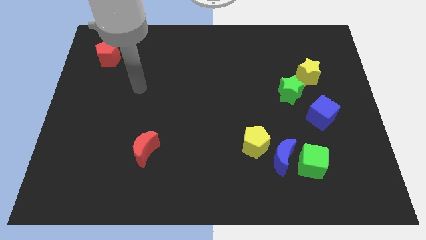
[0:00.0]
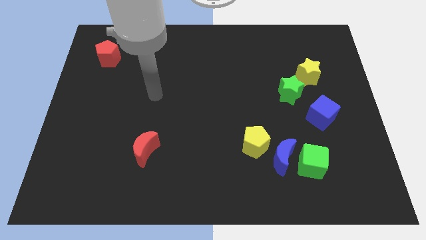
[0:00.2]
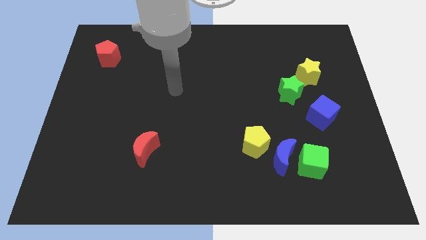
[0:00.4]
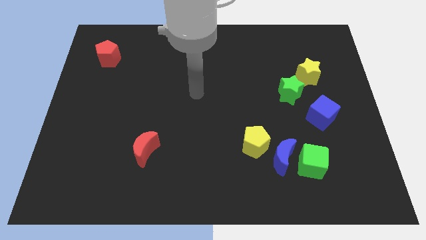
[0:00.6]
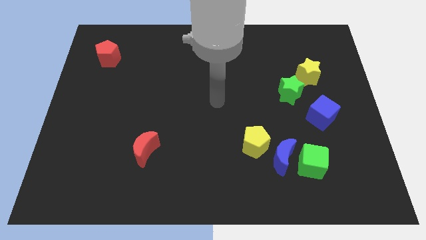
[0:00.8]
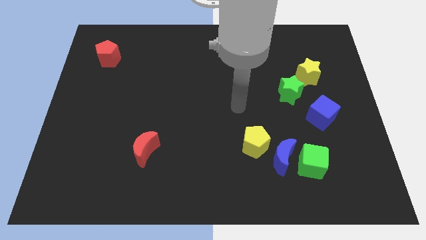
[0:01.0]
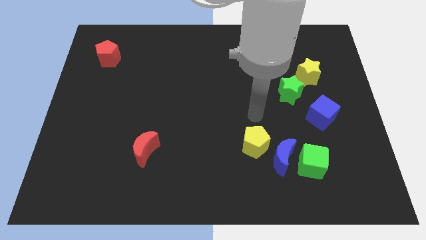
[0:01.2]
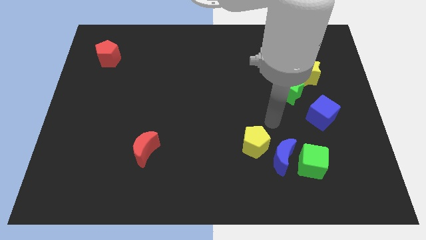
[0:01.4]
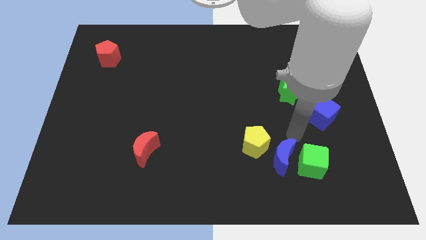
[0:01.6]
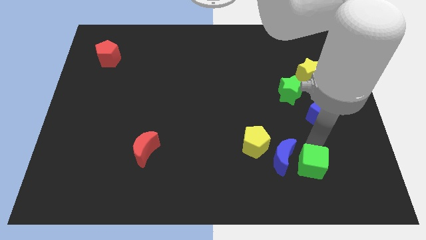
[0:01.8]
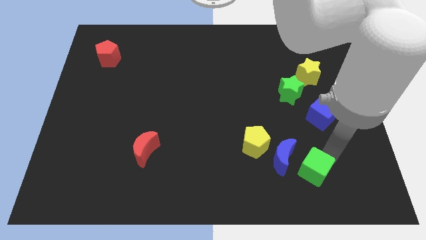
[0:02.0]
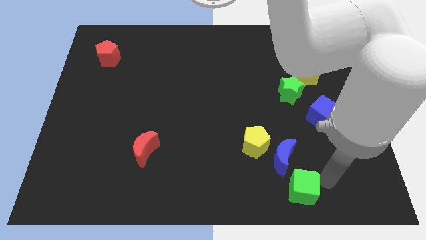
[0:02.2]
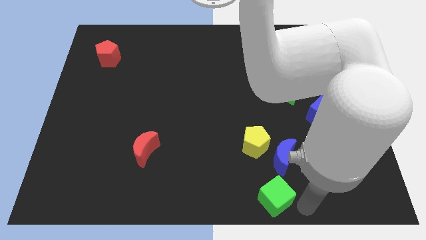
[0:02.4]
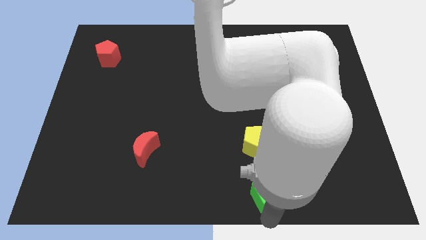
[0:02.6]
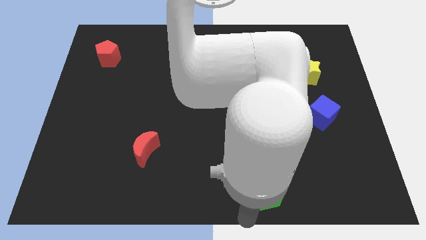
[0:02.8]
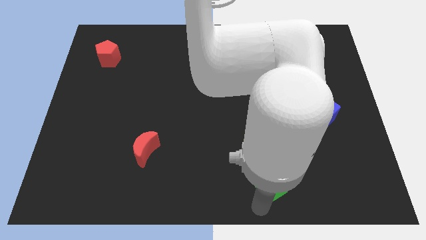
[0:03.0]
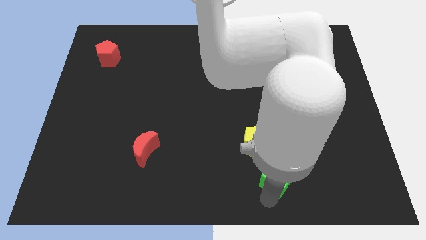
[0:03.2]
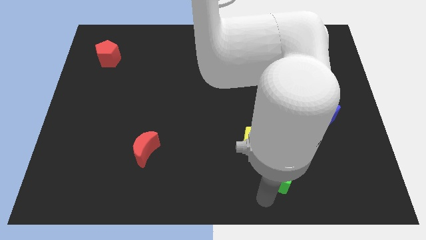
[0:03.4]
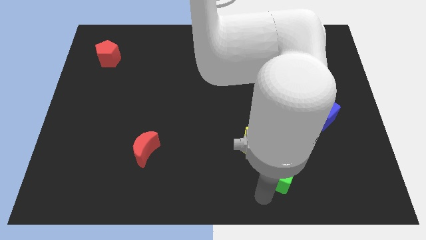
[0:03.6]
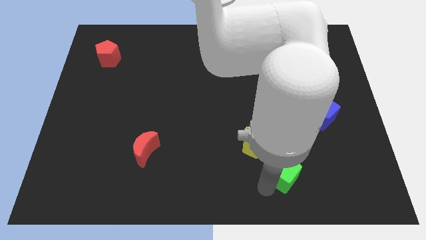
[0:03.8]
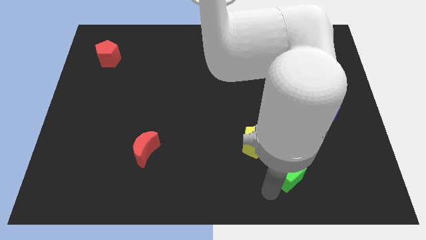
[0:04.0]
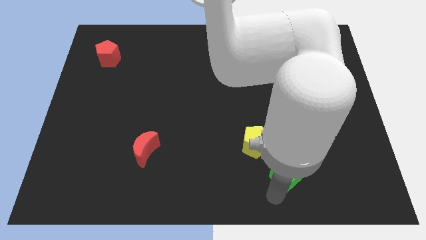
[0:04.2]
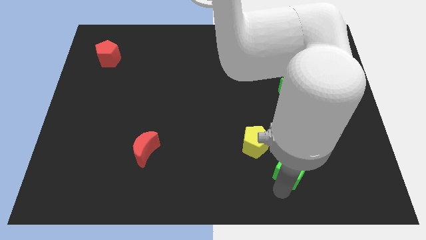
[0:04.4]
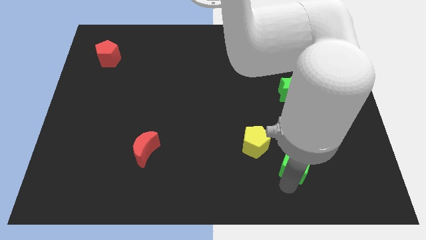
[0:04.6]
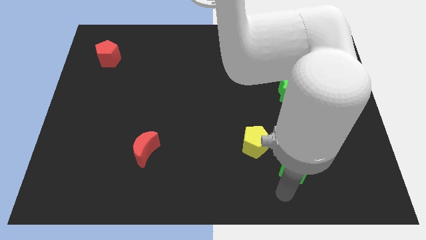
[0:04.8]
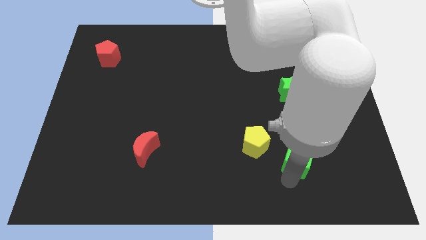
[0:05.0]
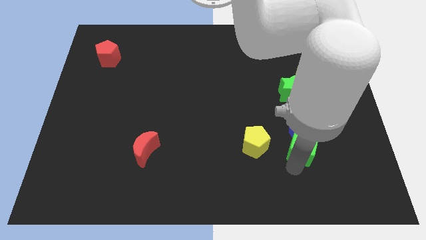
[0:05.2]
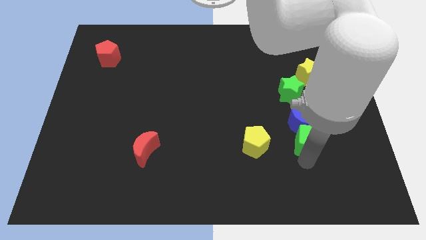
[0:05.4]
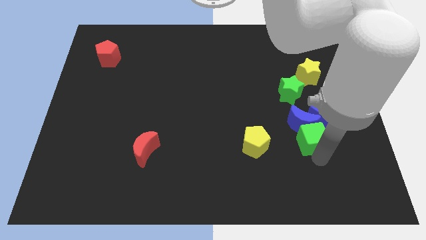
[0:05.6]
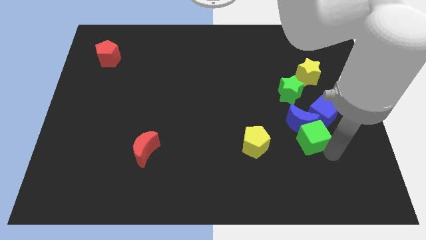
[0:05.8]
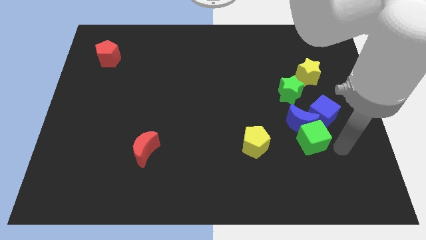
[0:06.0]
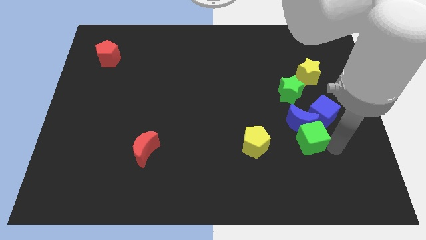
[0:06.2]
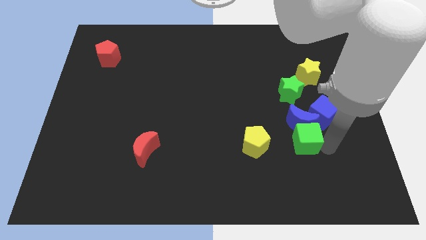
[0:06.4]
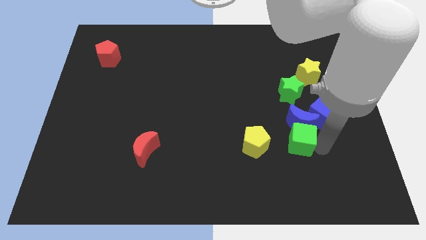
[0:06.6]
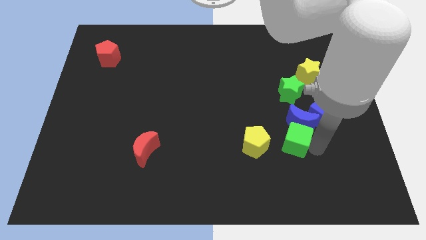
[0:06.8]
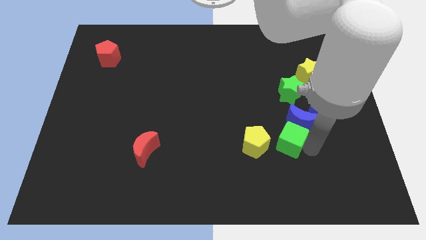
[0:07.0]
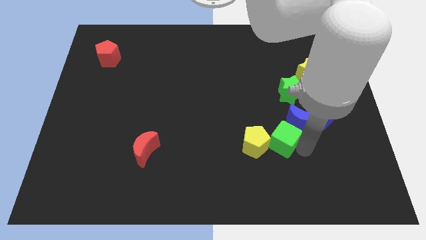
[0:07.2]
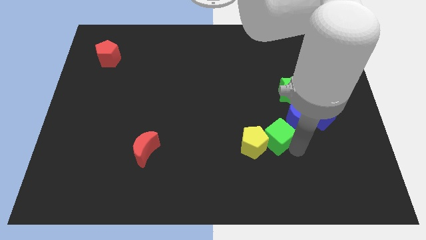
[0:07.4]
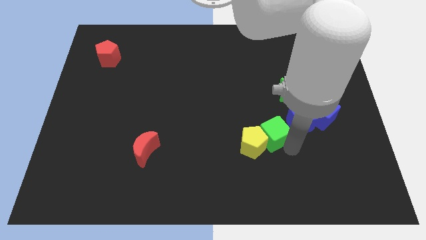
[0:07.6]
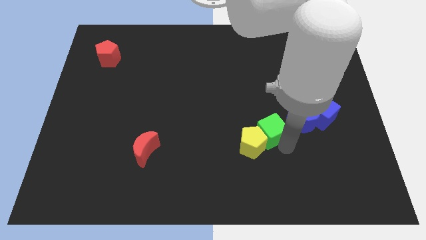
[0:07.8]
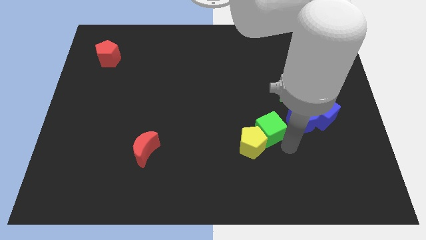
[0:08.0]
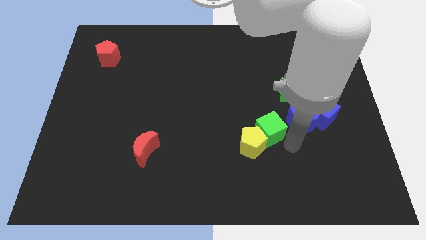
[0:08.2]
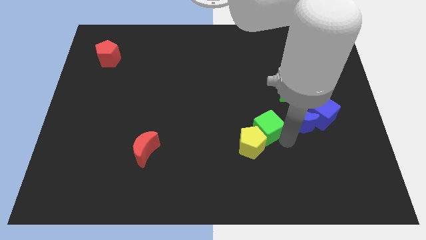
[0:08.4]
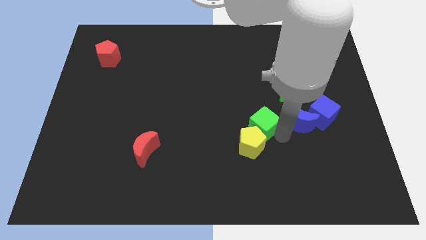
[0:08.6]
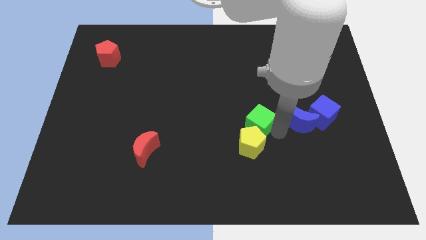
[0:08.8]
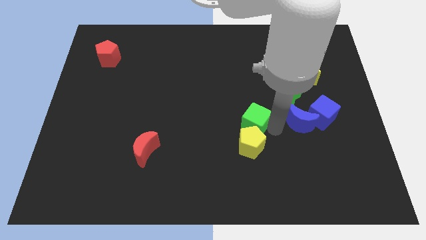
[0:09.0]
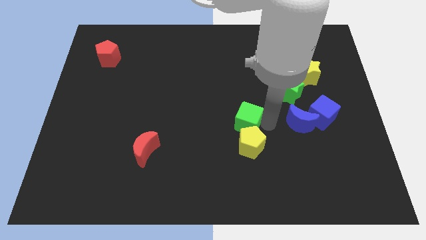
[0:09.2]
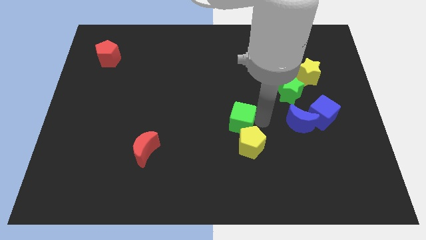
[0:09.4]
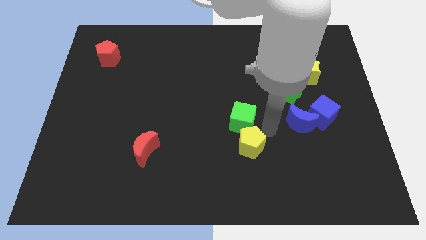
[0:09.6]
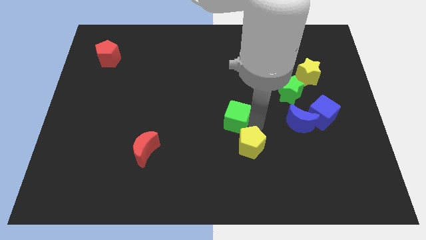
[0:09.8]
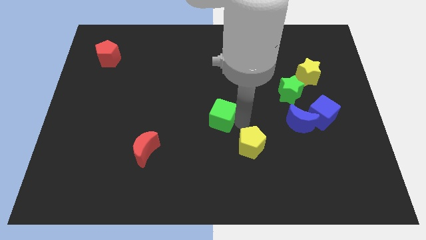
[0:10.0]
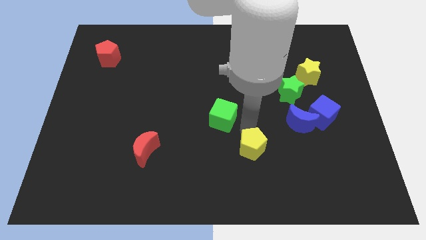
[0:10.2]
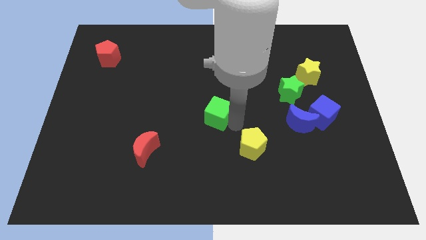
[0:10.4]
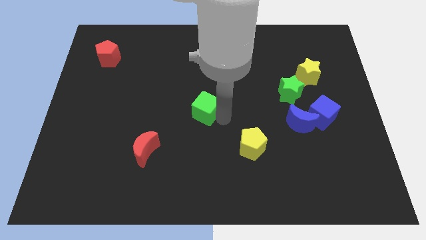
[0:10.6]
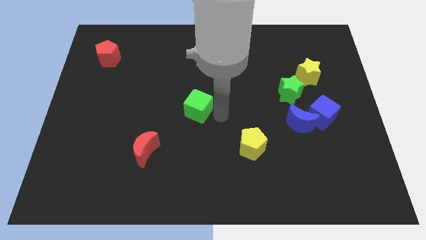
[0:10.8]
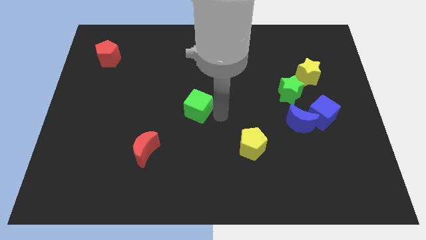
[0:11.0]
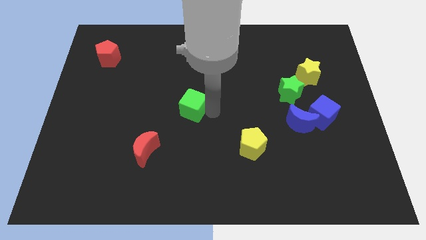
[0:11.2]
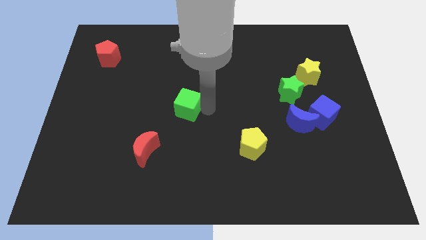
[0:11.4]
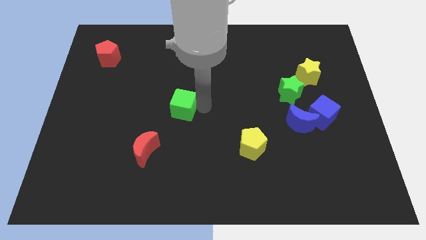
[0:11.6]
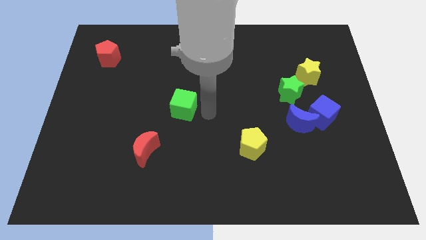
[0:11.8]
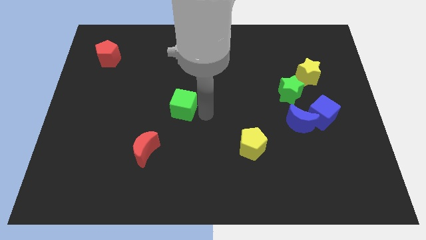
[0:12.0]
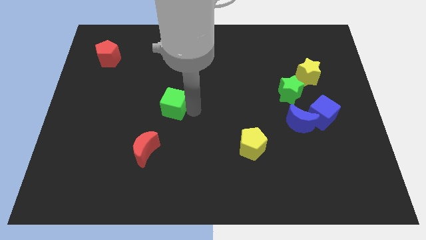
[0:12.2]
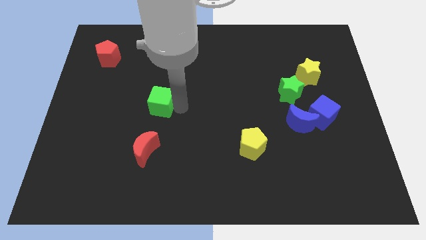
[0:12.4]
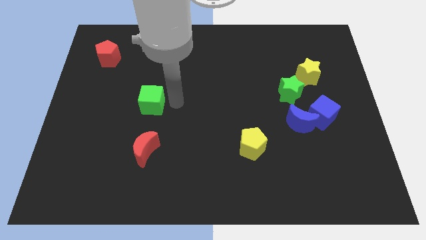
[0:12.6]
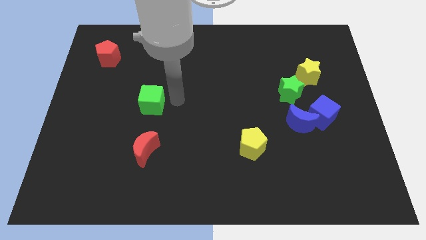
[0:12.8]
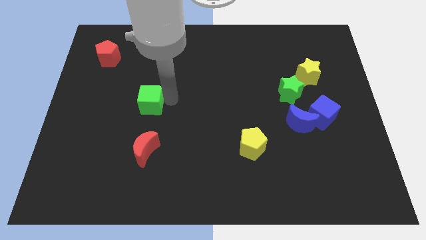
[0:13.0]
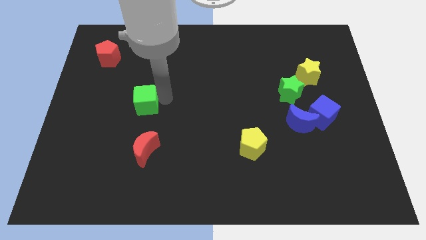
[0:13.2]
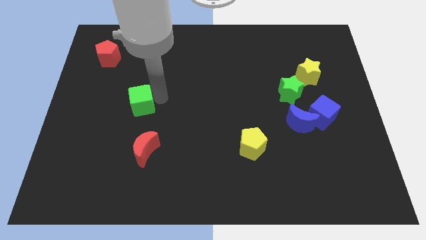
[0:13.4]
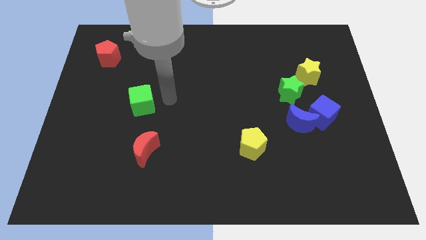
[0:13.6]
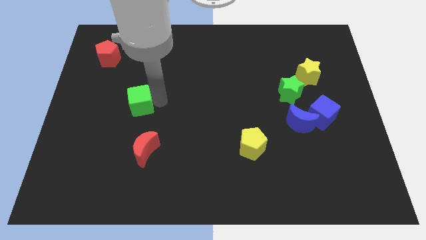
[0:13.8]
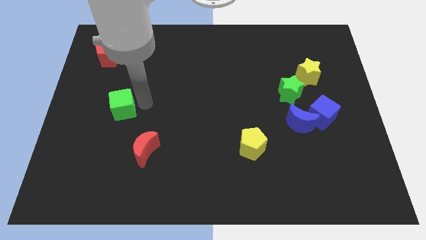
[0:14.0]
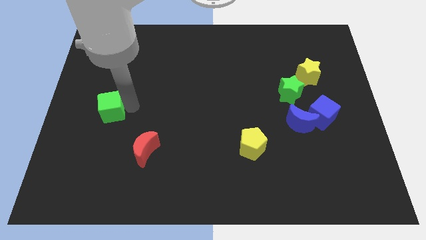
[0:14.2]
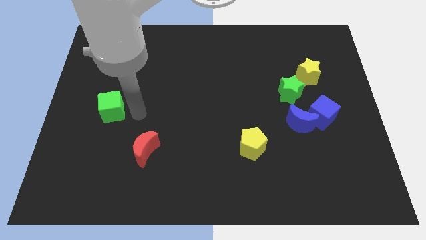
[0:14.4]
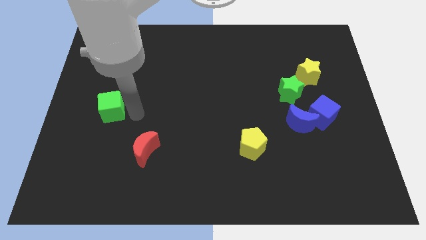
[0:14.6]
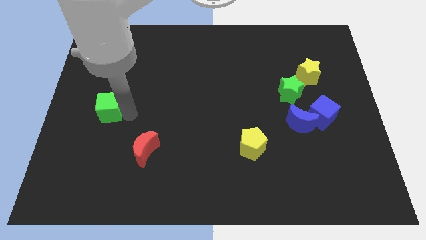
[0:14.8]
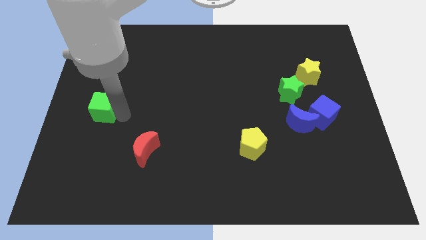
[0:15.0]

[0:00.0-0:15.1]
push the green cube to the left side

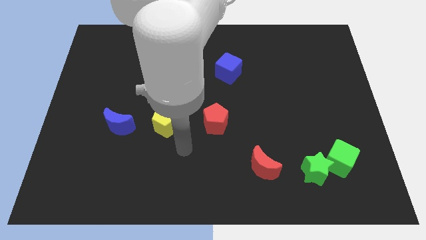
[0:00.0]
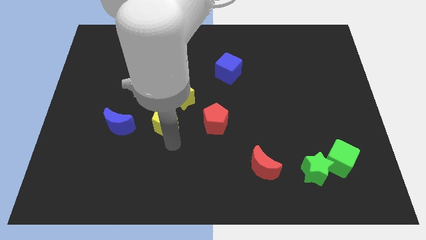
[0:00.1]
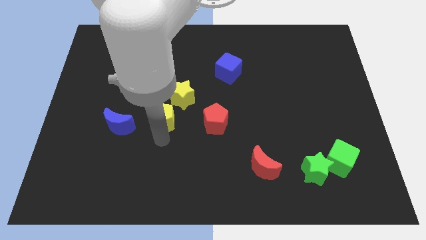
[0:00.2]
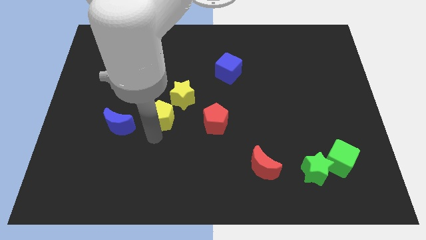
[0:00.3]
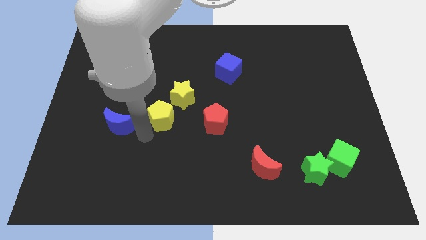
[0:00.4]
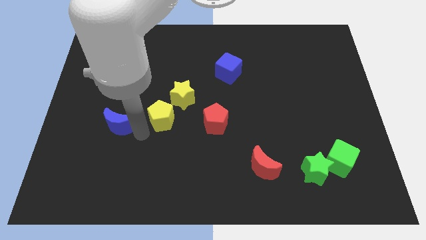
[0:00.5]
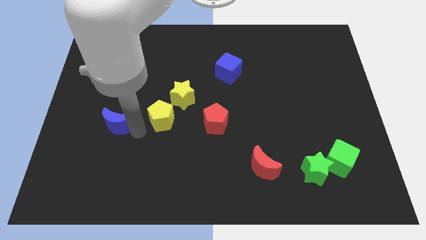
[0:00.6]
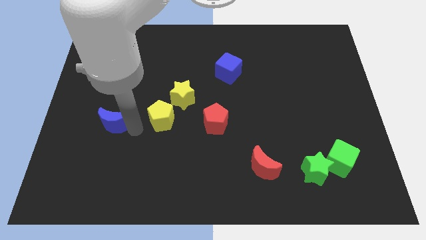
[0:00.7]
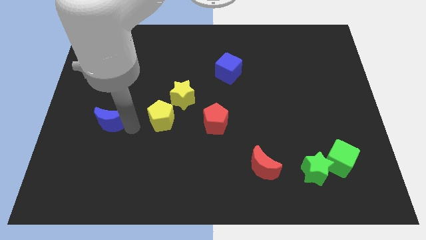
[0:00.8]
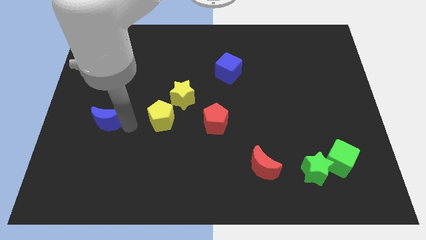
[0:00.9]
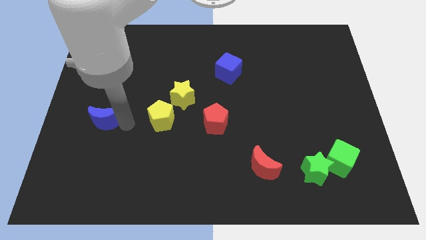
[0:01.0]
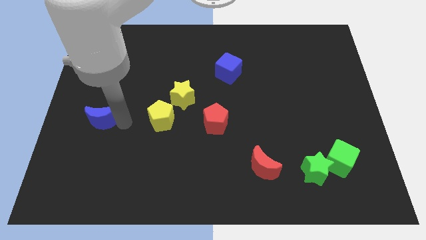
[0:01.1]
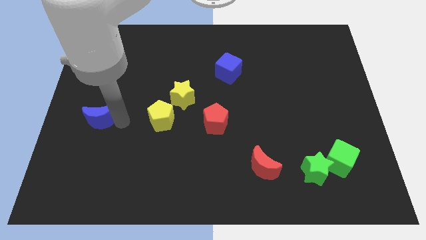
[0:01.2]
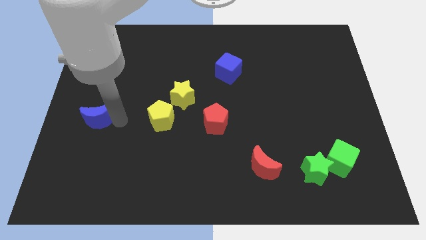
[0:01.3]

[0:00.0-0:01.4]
slide the blue moon to the left side
